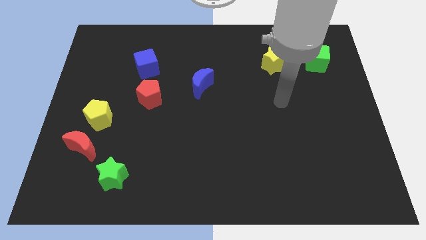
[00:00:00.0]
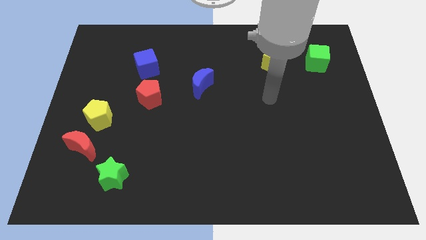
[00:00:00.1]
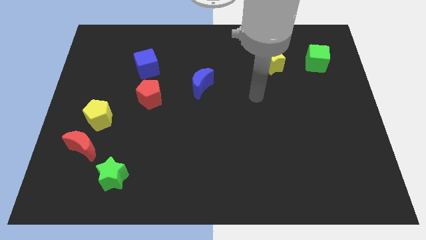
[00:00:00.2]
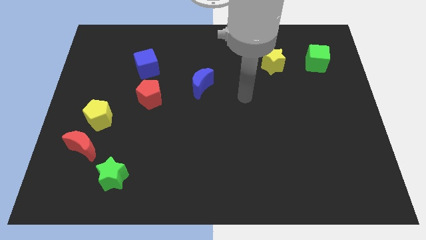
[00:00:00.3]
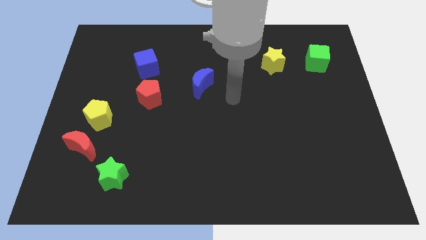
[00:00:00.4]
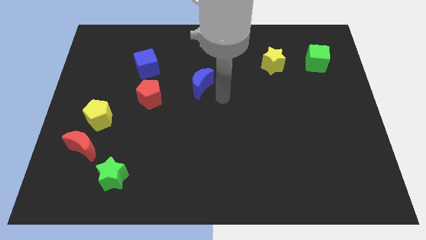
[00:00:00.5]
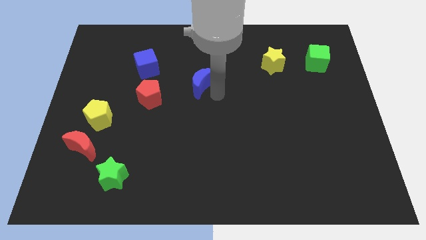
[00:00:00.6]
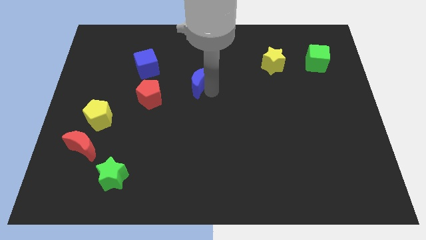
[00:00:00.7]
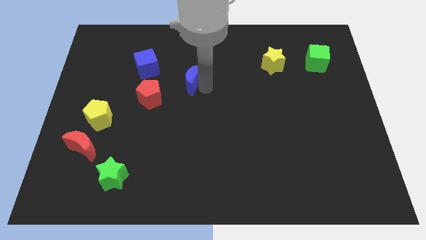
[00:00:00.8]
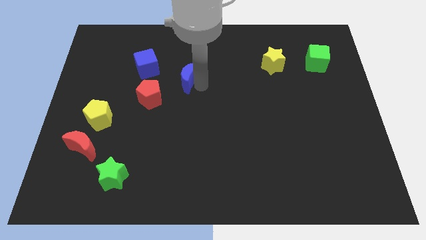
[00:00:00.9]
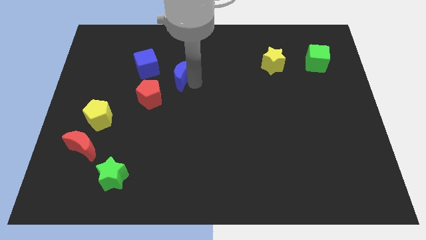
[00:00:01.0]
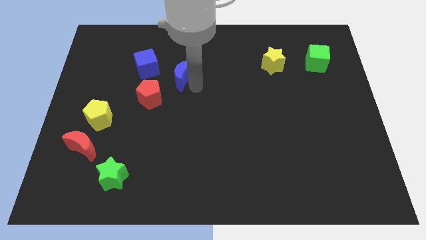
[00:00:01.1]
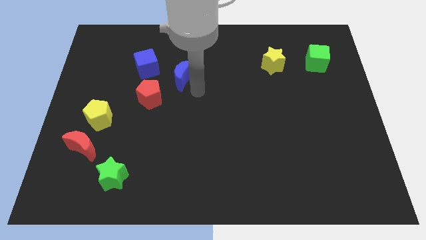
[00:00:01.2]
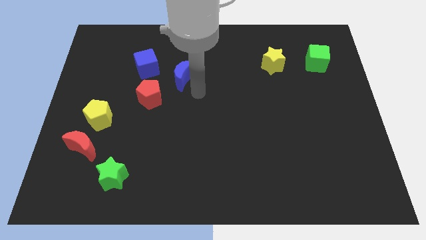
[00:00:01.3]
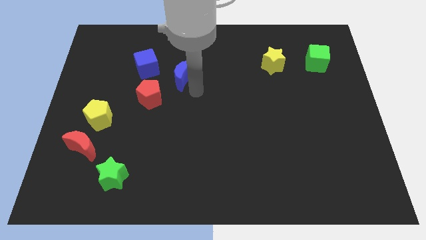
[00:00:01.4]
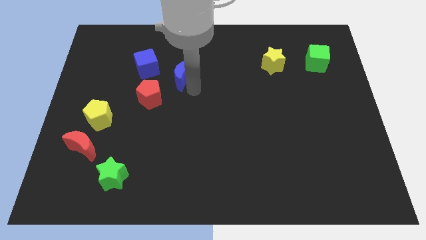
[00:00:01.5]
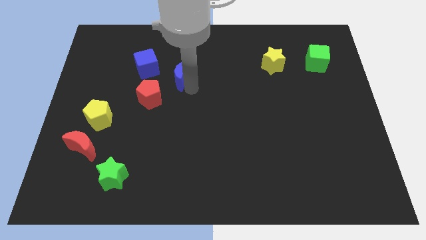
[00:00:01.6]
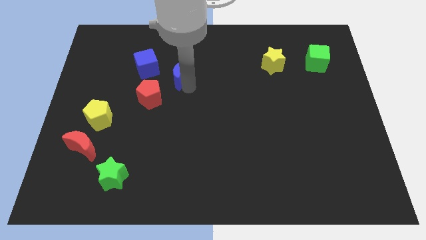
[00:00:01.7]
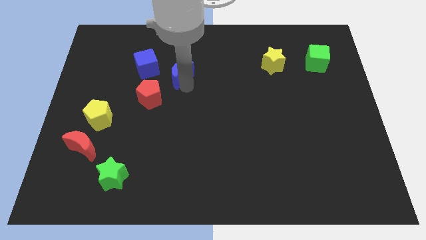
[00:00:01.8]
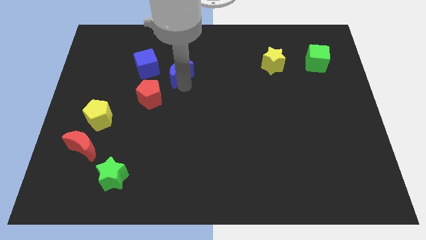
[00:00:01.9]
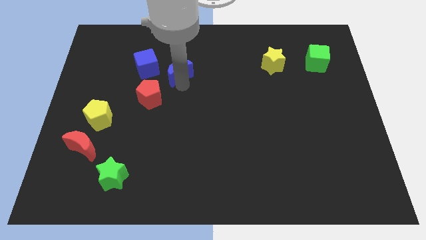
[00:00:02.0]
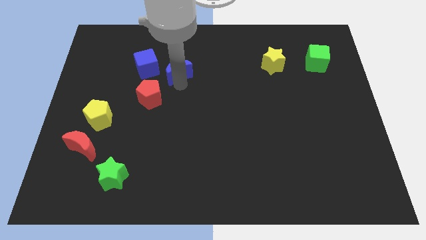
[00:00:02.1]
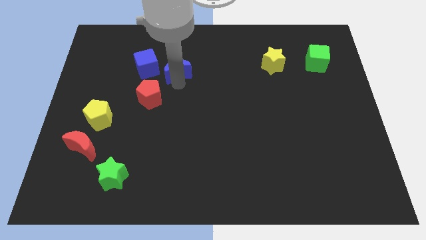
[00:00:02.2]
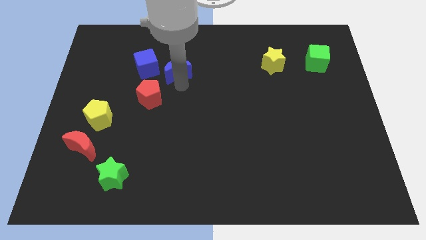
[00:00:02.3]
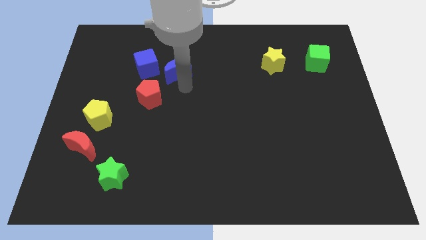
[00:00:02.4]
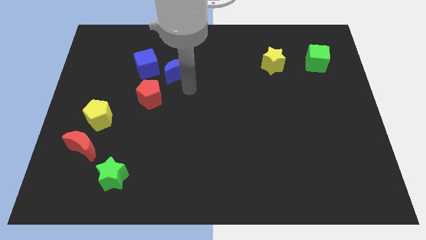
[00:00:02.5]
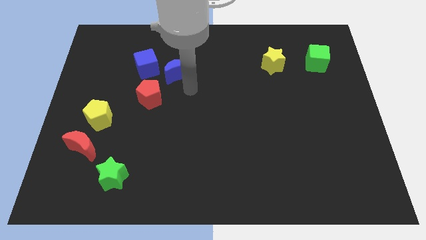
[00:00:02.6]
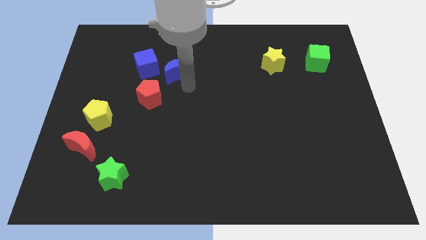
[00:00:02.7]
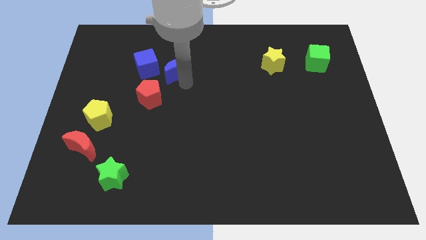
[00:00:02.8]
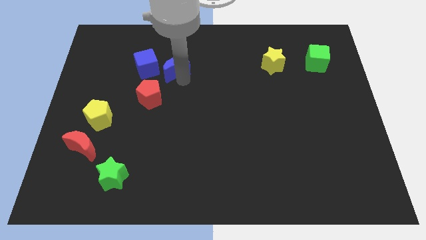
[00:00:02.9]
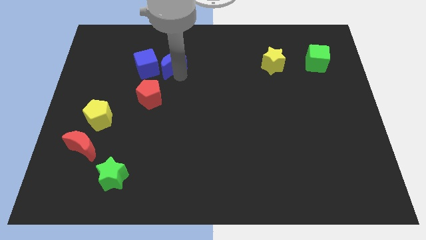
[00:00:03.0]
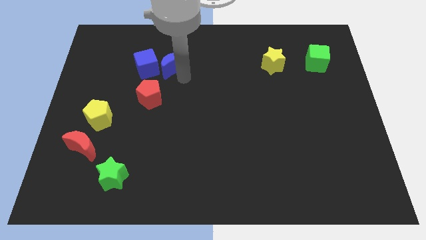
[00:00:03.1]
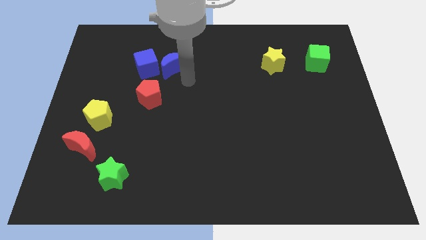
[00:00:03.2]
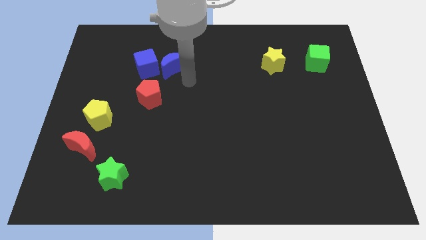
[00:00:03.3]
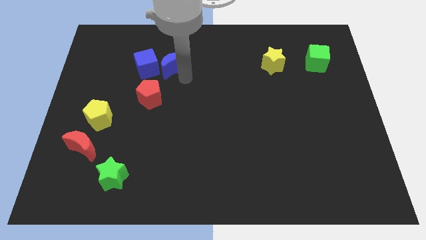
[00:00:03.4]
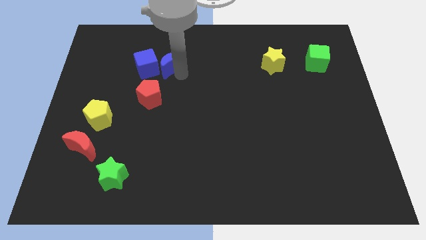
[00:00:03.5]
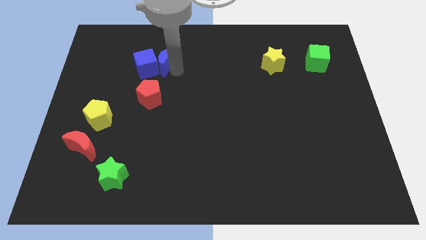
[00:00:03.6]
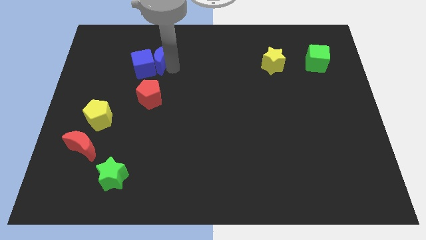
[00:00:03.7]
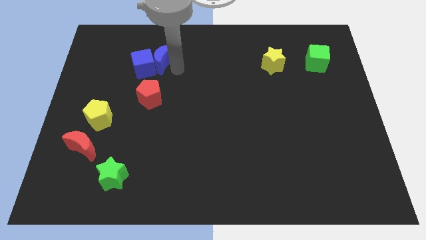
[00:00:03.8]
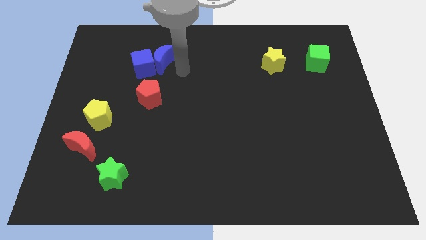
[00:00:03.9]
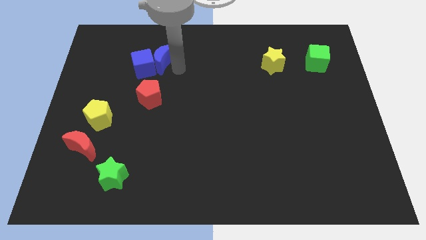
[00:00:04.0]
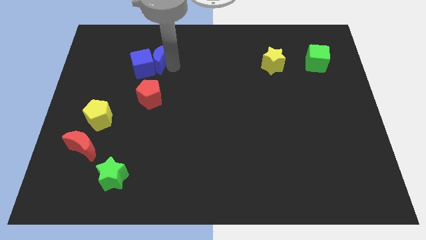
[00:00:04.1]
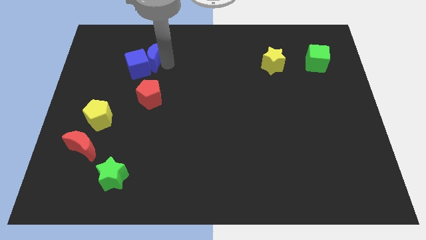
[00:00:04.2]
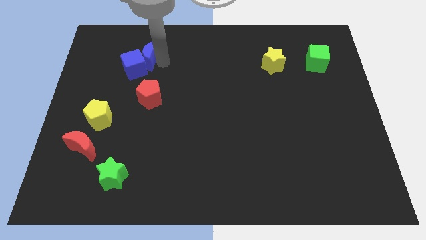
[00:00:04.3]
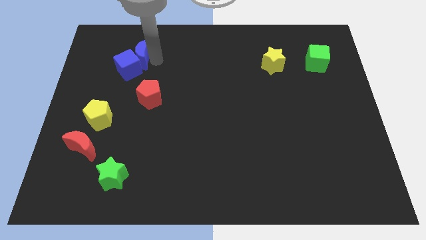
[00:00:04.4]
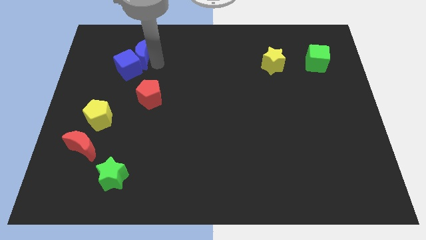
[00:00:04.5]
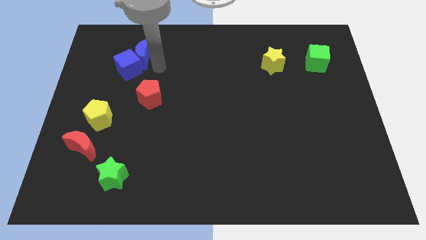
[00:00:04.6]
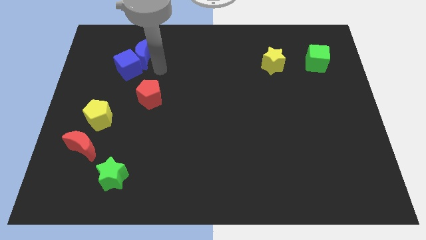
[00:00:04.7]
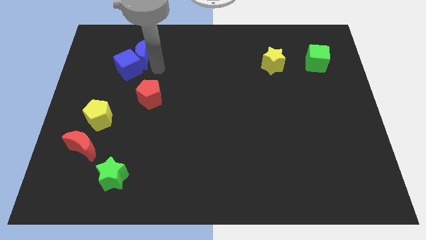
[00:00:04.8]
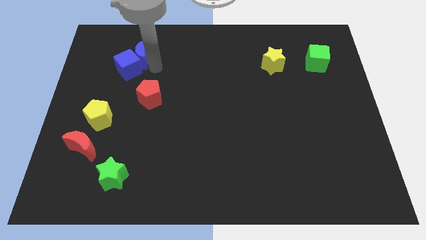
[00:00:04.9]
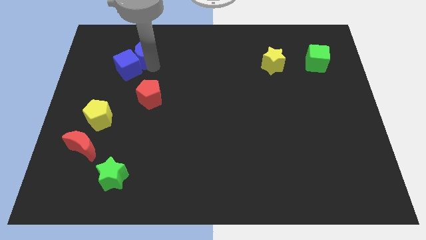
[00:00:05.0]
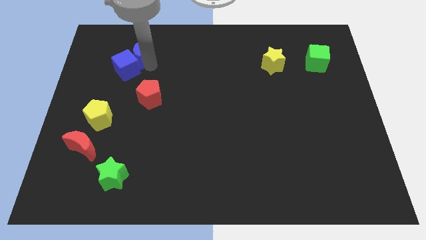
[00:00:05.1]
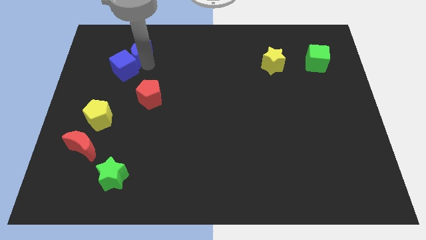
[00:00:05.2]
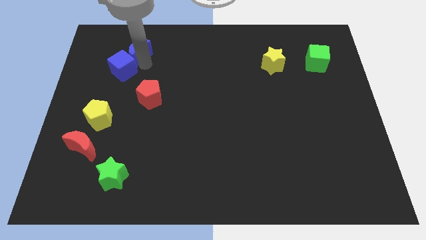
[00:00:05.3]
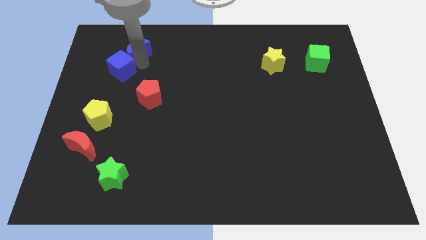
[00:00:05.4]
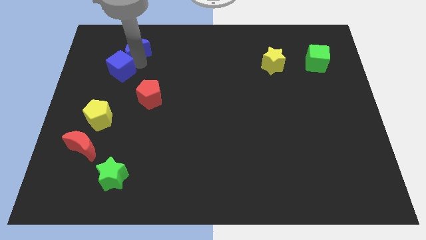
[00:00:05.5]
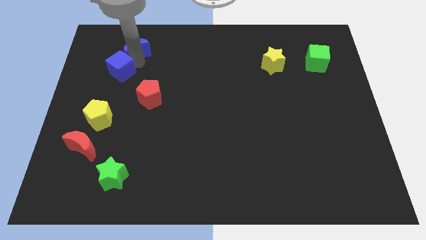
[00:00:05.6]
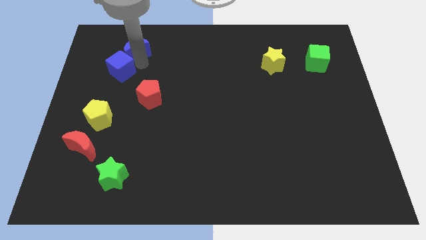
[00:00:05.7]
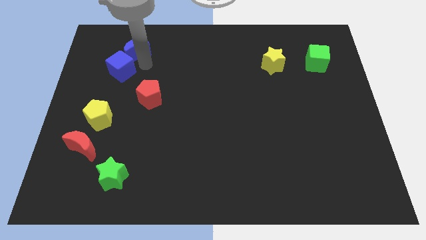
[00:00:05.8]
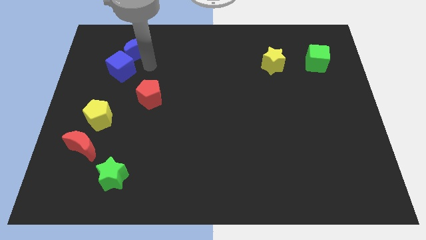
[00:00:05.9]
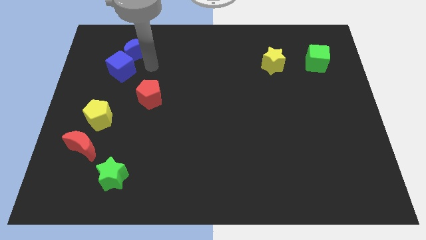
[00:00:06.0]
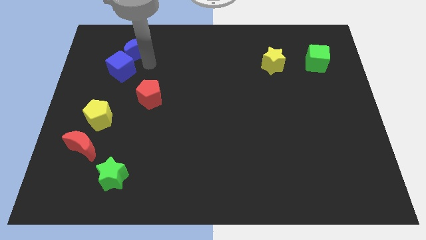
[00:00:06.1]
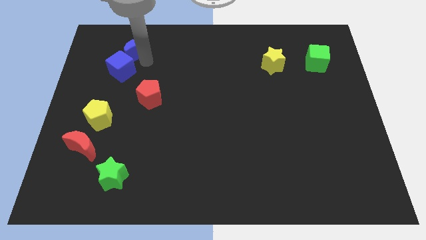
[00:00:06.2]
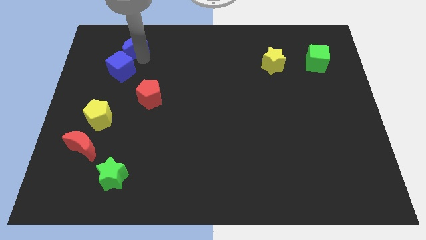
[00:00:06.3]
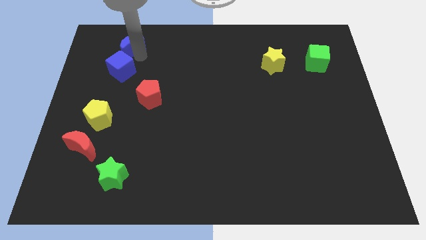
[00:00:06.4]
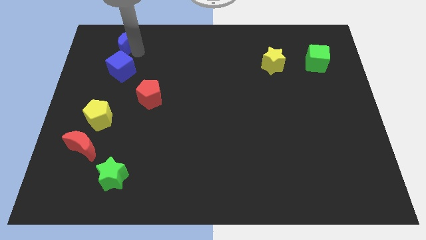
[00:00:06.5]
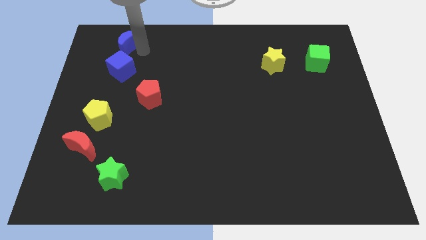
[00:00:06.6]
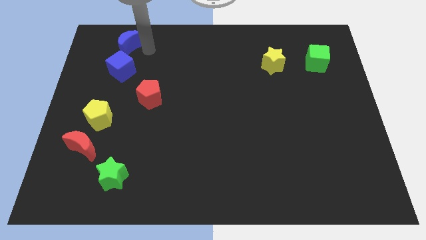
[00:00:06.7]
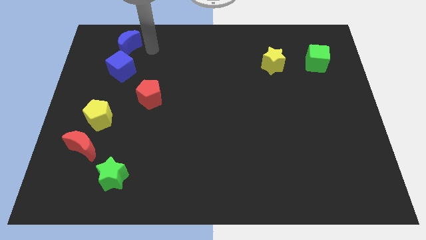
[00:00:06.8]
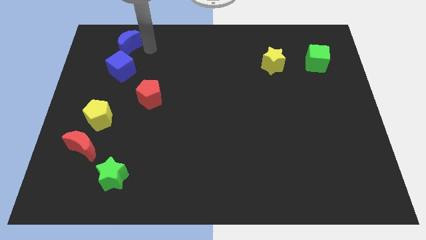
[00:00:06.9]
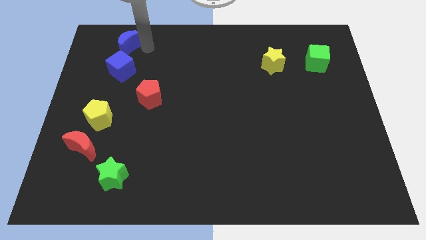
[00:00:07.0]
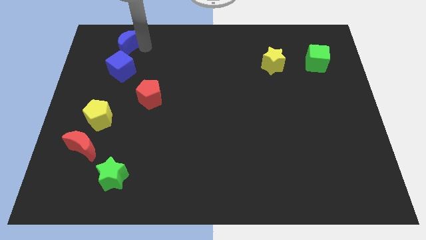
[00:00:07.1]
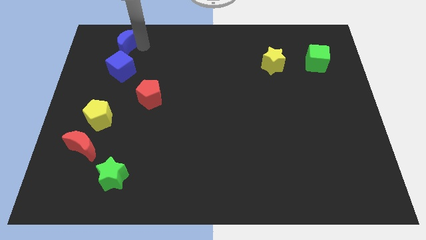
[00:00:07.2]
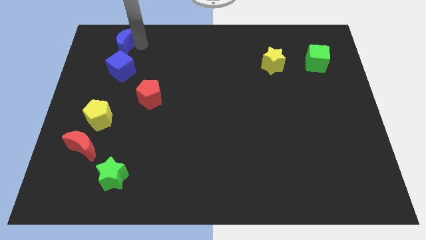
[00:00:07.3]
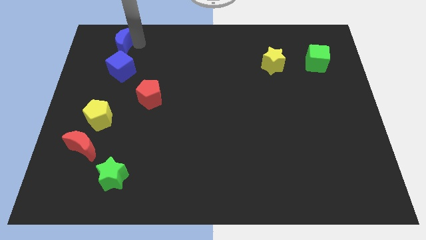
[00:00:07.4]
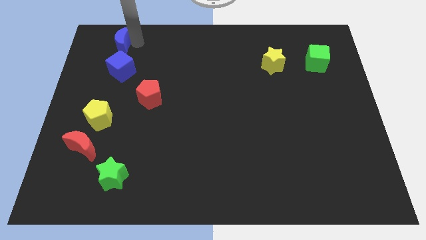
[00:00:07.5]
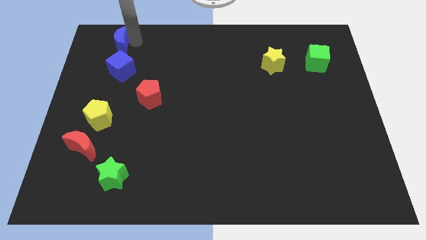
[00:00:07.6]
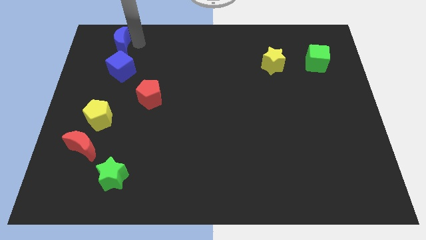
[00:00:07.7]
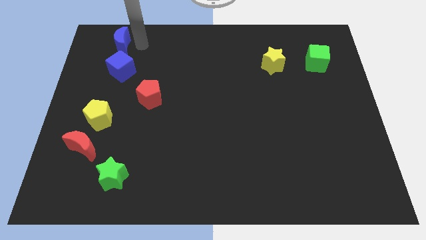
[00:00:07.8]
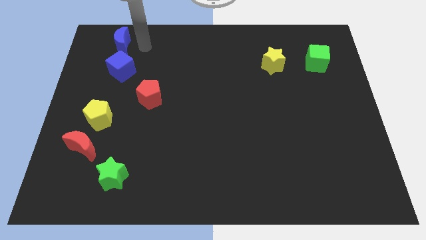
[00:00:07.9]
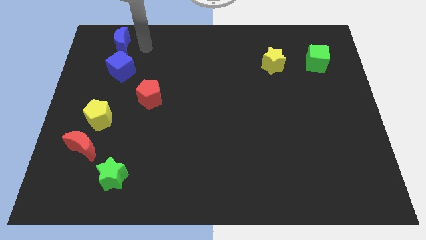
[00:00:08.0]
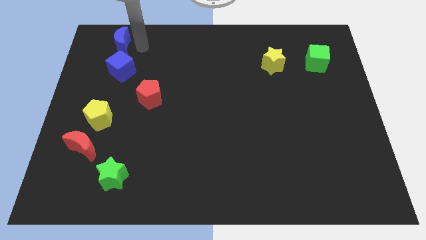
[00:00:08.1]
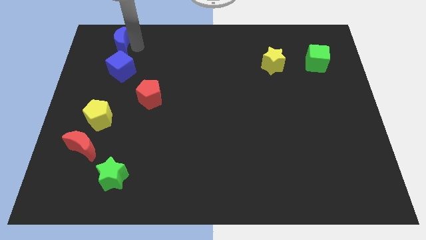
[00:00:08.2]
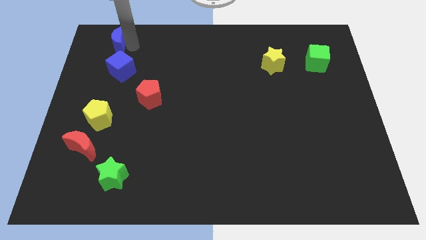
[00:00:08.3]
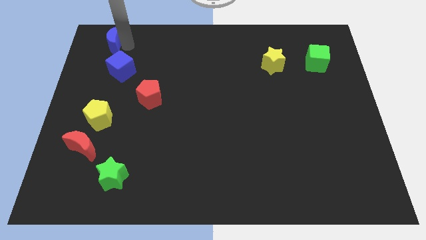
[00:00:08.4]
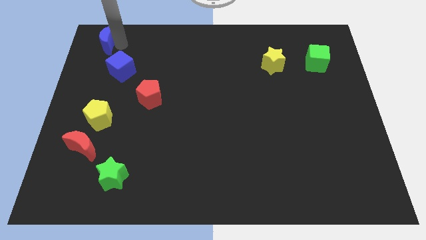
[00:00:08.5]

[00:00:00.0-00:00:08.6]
put the blue moon to the top left of the board
